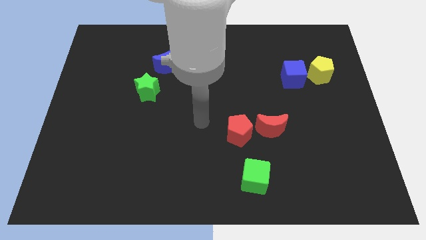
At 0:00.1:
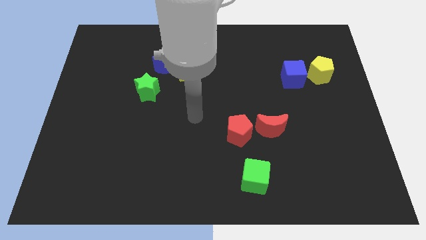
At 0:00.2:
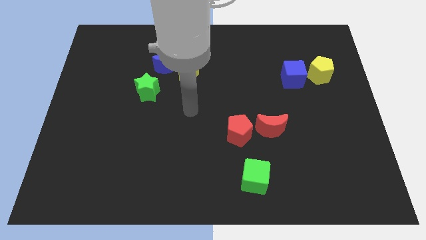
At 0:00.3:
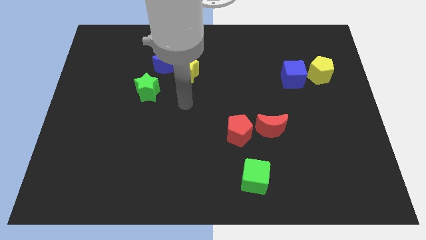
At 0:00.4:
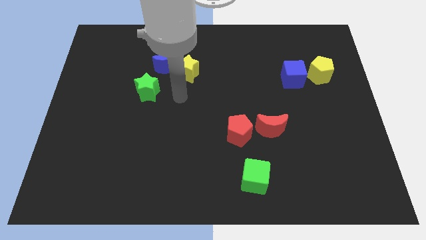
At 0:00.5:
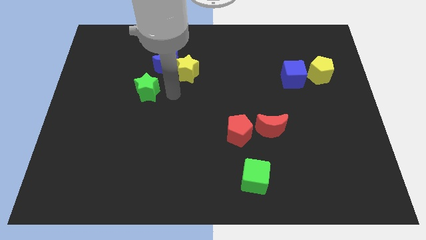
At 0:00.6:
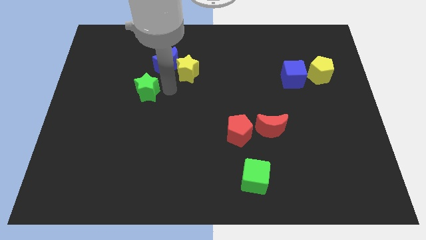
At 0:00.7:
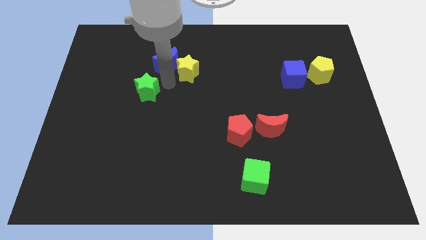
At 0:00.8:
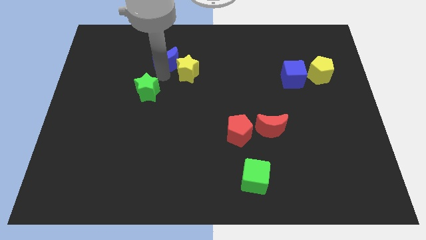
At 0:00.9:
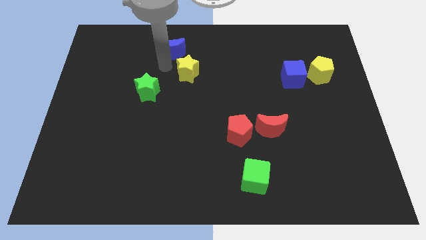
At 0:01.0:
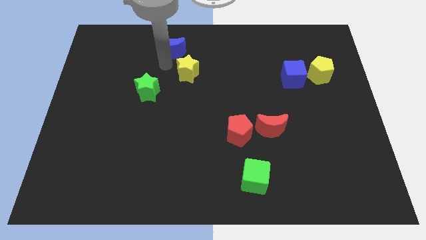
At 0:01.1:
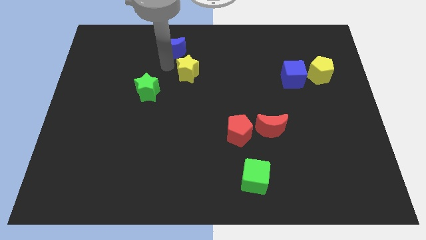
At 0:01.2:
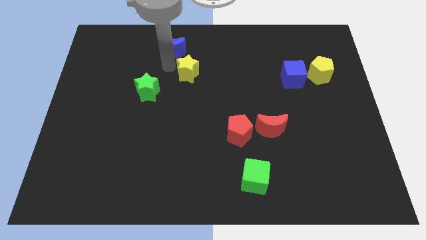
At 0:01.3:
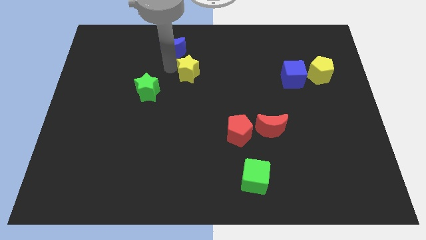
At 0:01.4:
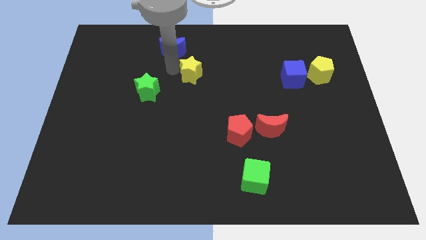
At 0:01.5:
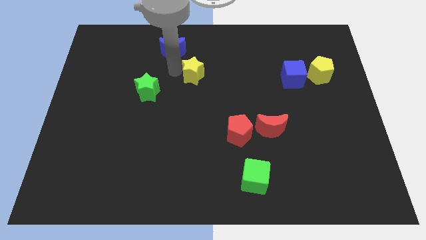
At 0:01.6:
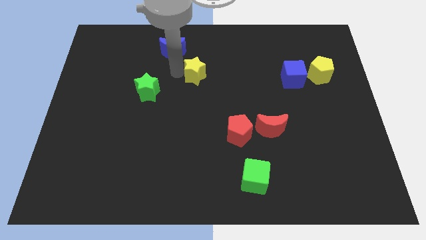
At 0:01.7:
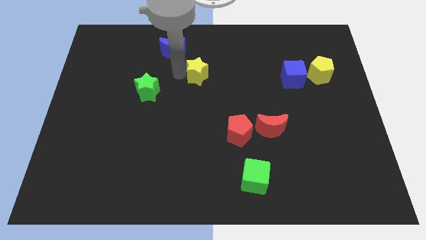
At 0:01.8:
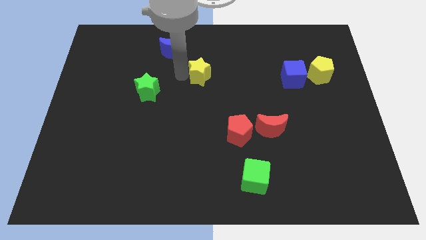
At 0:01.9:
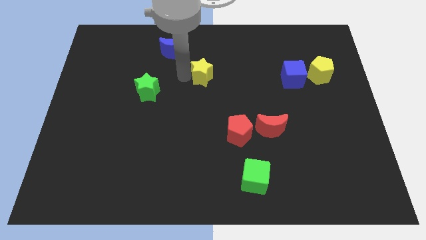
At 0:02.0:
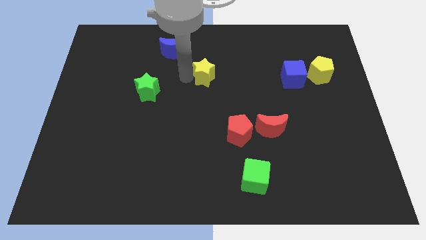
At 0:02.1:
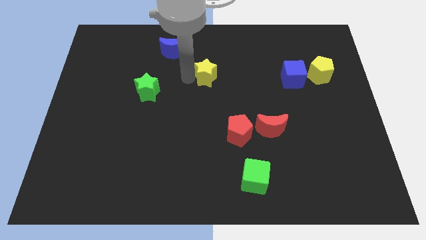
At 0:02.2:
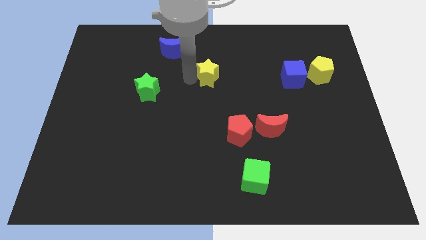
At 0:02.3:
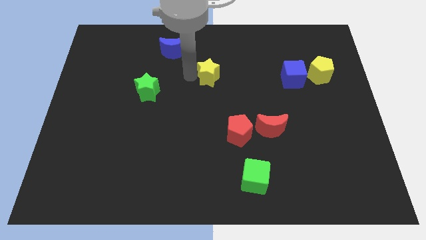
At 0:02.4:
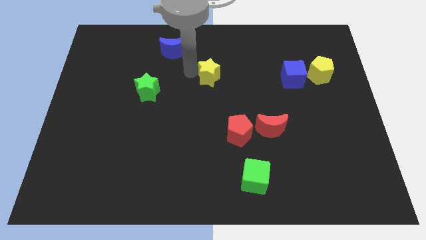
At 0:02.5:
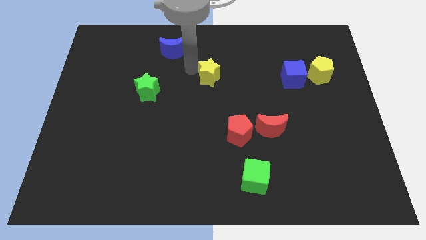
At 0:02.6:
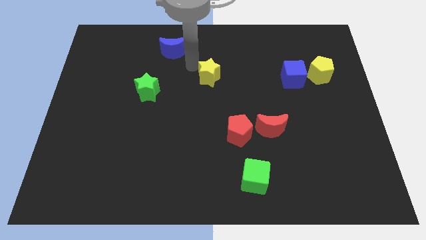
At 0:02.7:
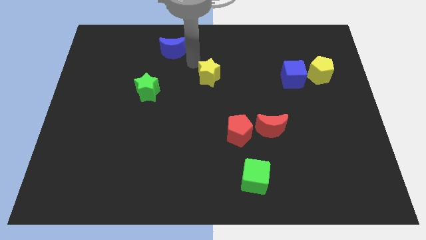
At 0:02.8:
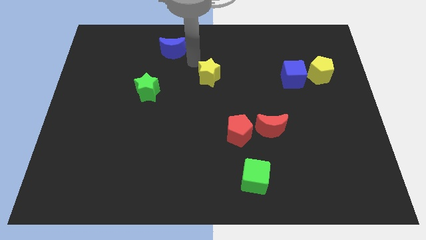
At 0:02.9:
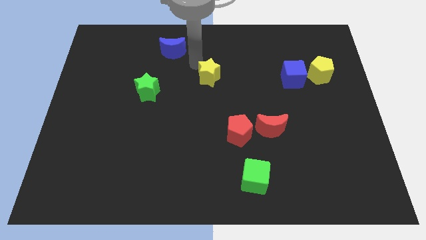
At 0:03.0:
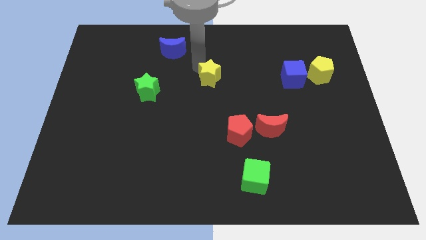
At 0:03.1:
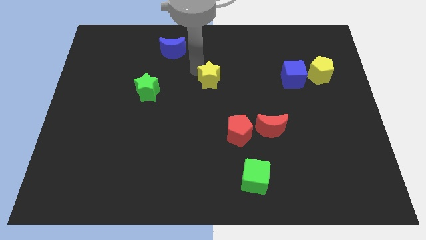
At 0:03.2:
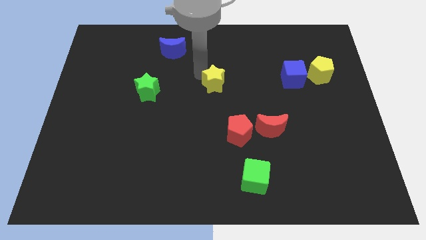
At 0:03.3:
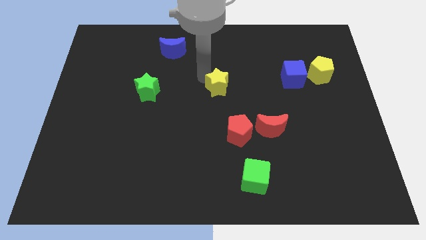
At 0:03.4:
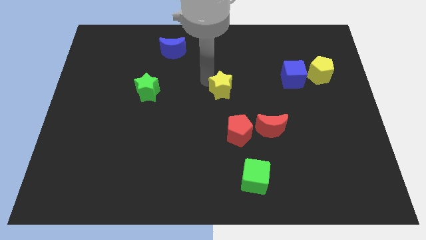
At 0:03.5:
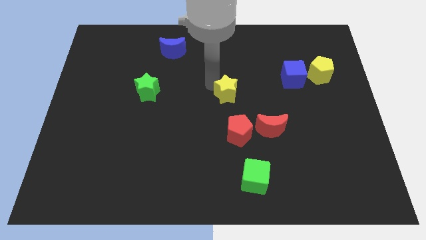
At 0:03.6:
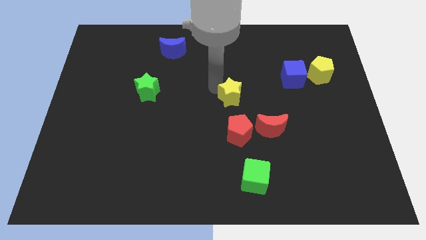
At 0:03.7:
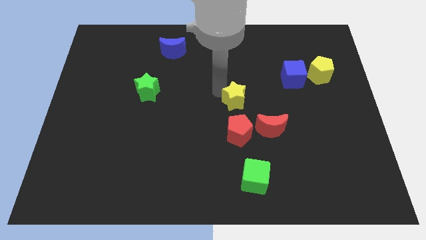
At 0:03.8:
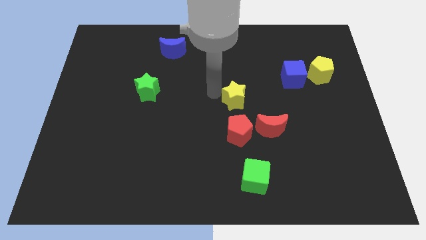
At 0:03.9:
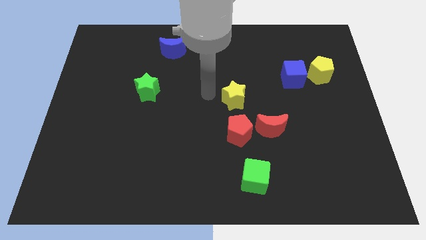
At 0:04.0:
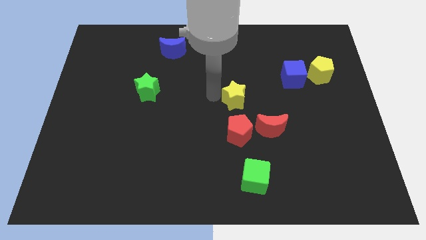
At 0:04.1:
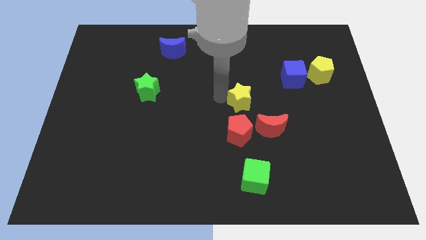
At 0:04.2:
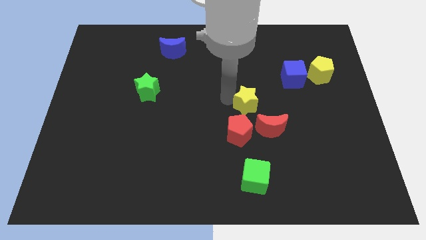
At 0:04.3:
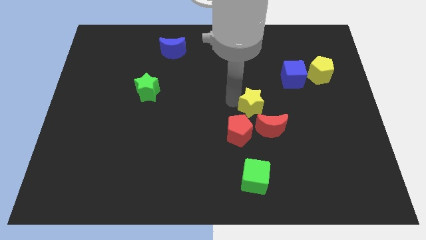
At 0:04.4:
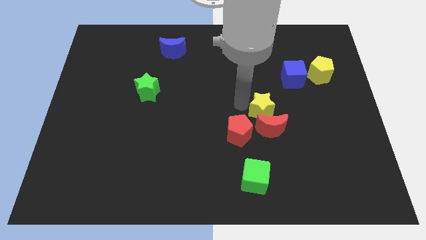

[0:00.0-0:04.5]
move the yellow star downwards and then to the right

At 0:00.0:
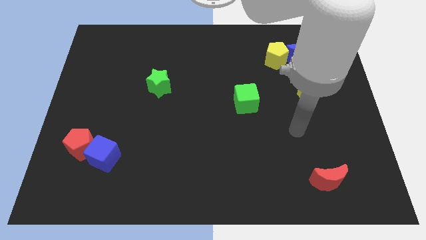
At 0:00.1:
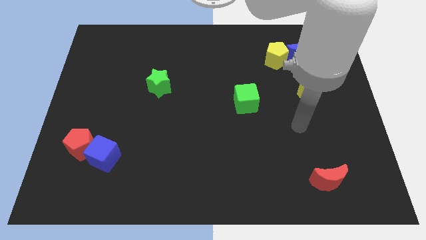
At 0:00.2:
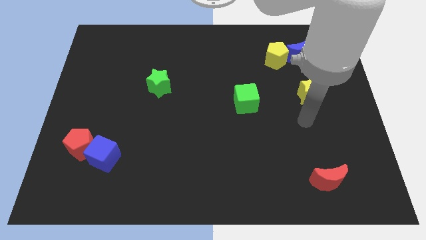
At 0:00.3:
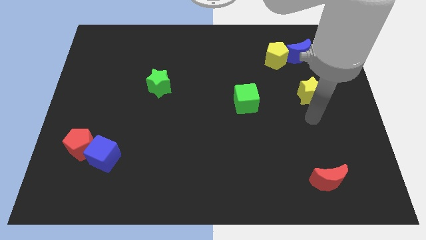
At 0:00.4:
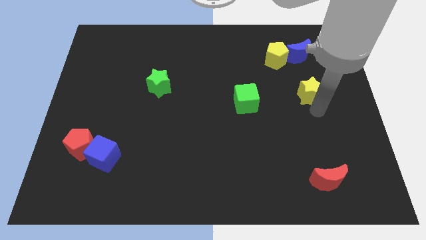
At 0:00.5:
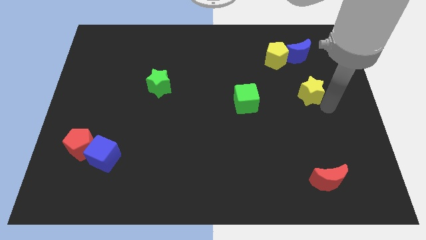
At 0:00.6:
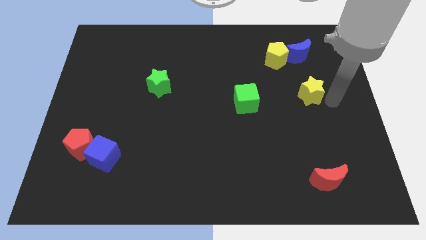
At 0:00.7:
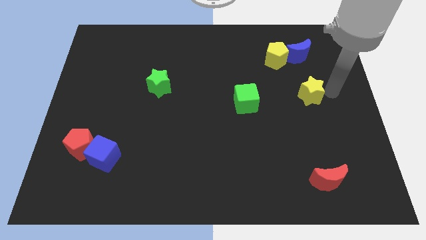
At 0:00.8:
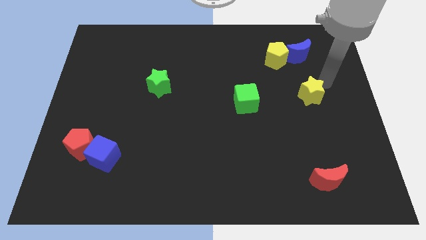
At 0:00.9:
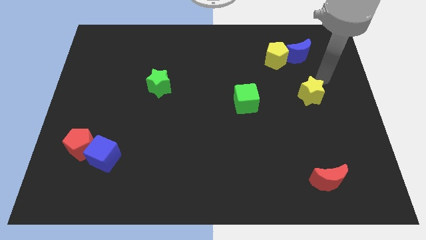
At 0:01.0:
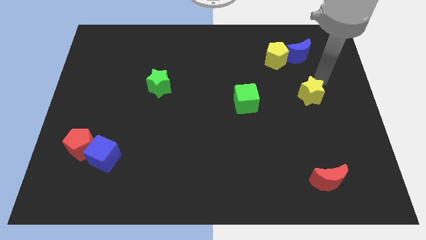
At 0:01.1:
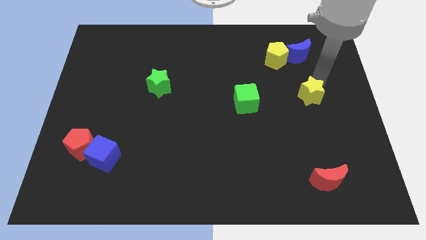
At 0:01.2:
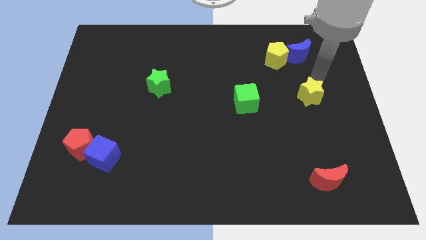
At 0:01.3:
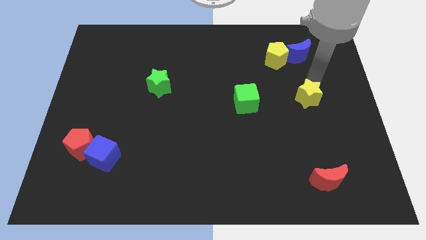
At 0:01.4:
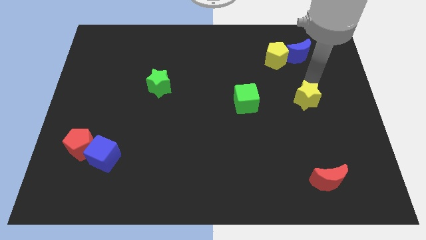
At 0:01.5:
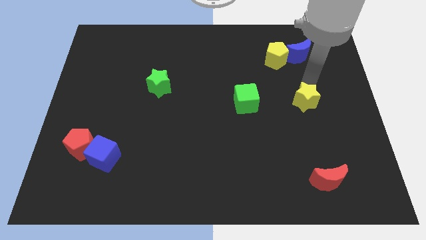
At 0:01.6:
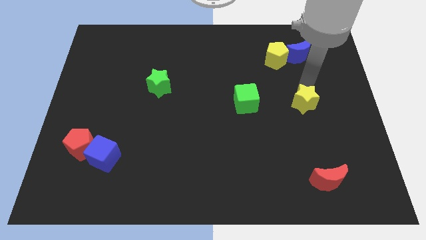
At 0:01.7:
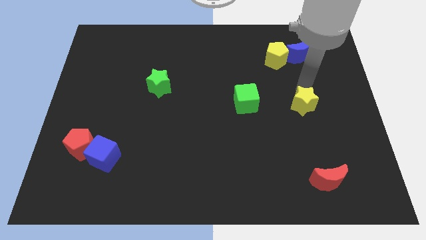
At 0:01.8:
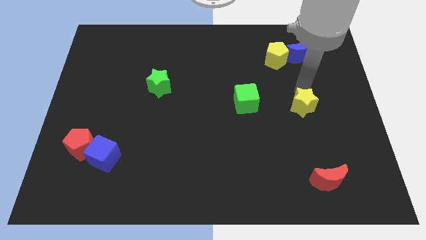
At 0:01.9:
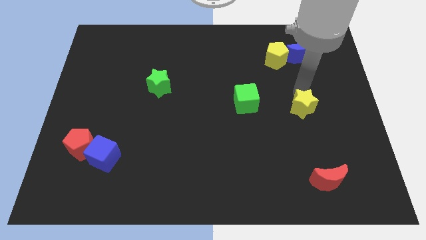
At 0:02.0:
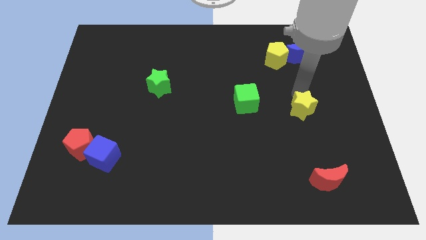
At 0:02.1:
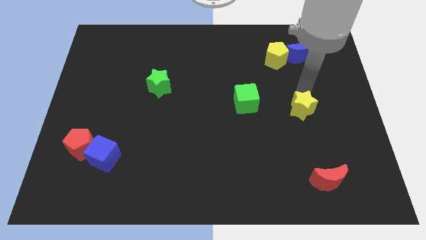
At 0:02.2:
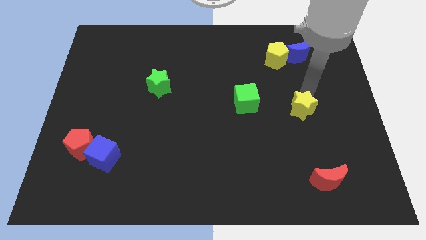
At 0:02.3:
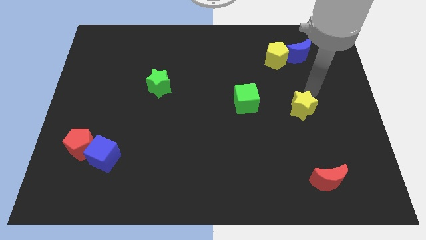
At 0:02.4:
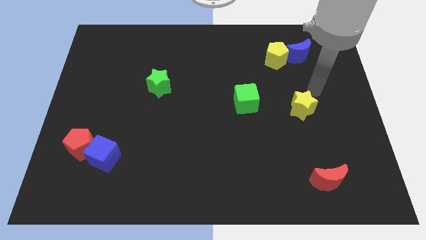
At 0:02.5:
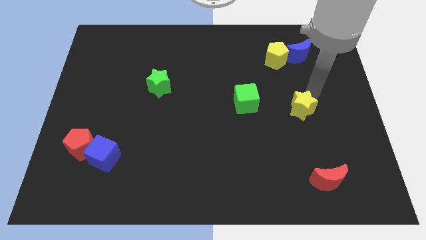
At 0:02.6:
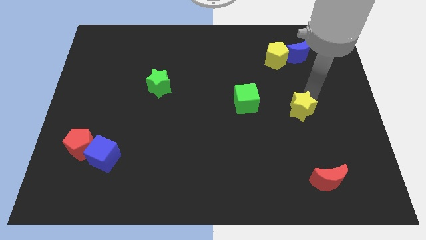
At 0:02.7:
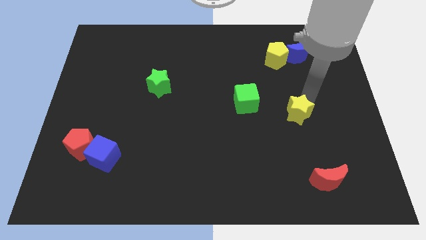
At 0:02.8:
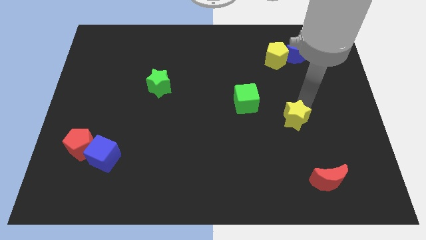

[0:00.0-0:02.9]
push the yellow star a little bit down and to the left diagonally

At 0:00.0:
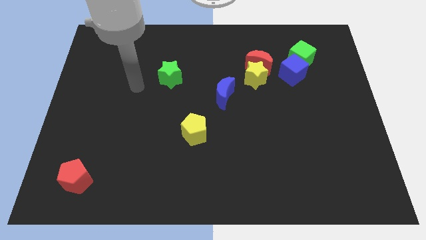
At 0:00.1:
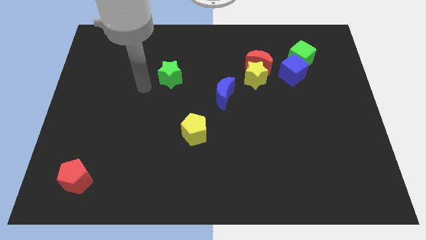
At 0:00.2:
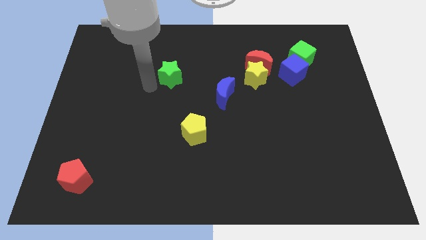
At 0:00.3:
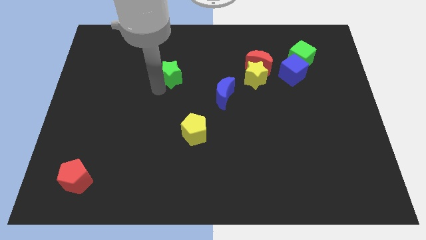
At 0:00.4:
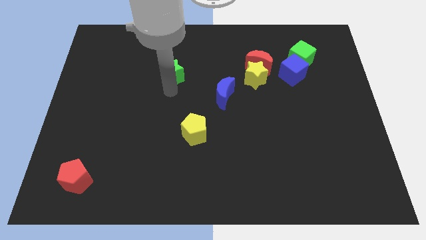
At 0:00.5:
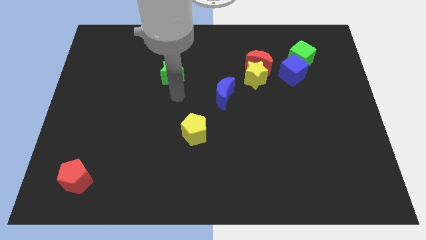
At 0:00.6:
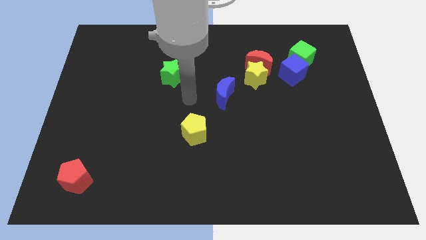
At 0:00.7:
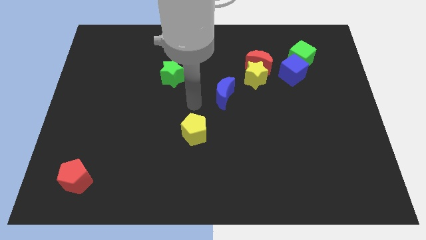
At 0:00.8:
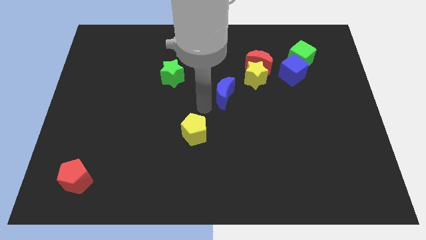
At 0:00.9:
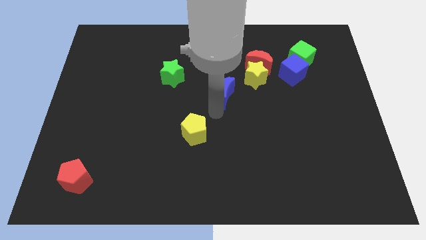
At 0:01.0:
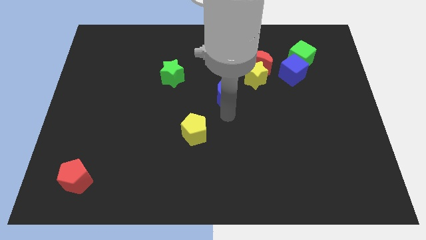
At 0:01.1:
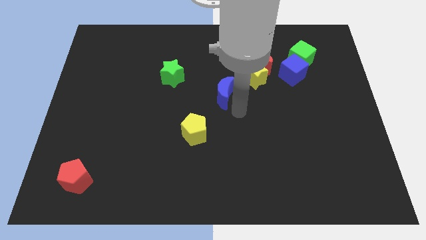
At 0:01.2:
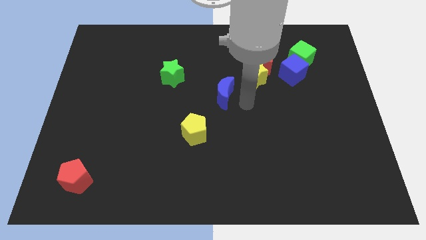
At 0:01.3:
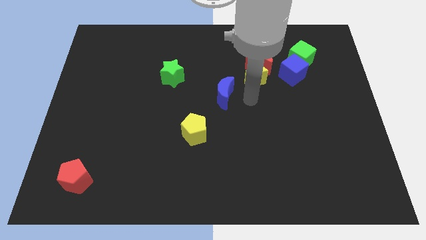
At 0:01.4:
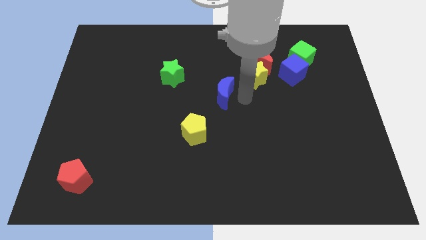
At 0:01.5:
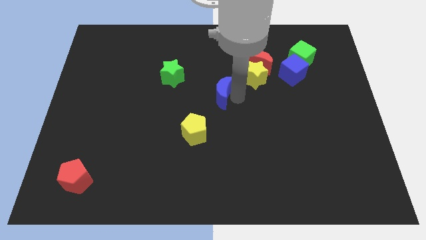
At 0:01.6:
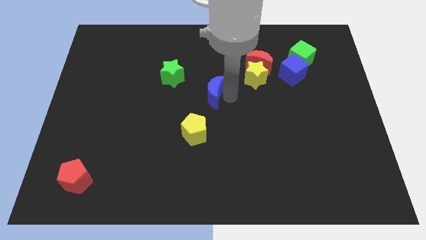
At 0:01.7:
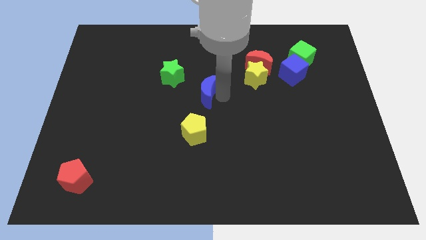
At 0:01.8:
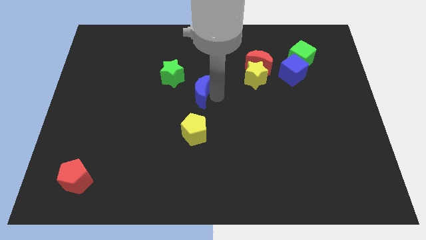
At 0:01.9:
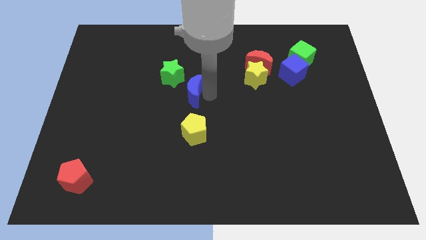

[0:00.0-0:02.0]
move the blue moon somewhat left
